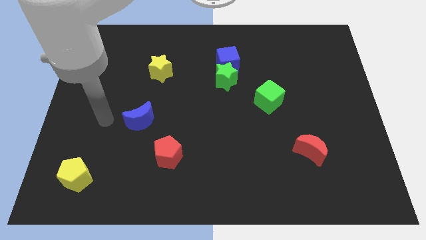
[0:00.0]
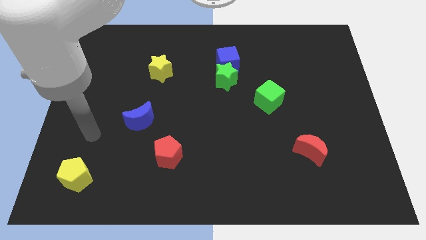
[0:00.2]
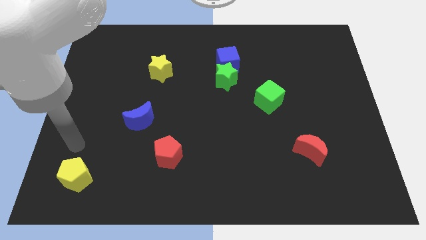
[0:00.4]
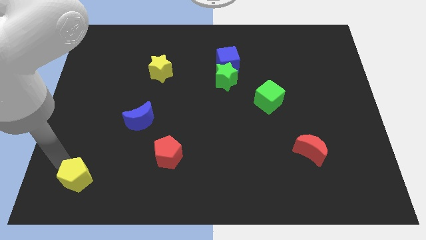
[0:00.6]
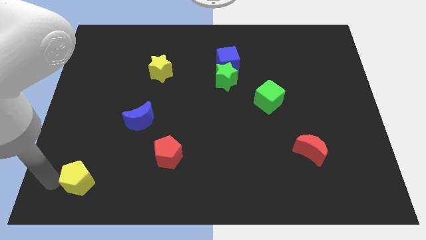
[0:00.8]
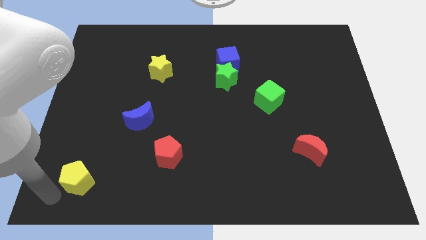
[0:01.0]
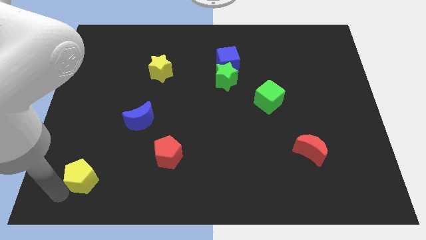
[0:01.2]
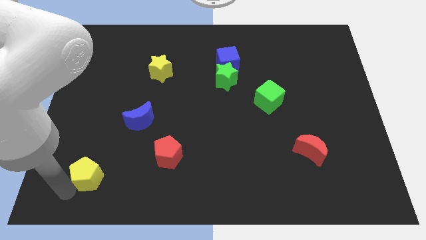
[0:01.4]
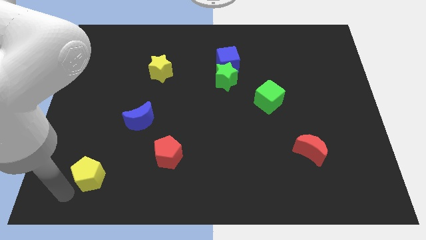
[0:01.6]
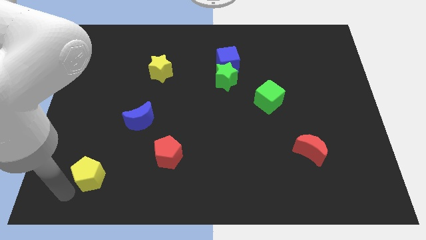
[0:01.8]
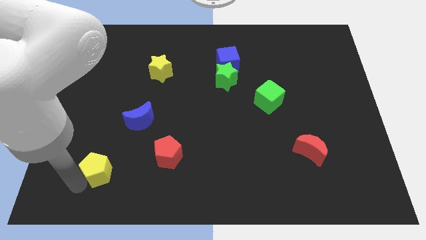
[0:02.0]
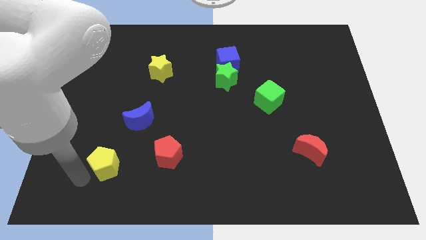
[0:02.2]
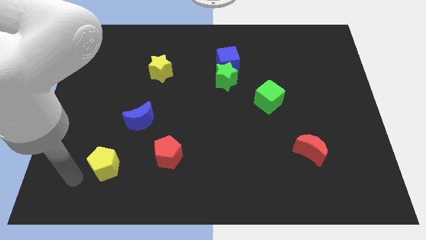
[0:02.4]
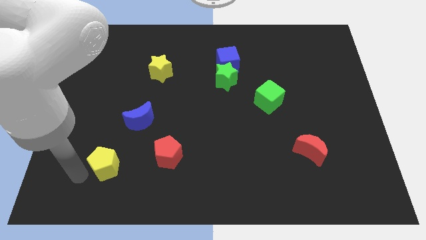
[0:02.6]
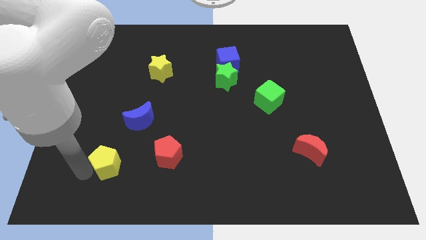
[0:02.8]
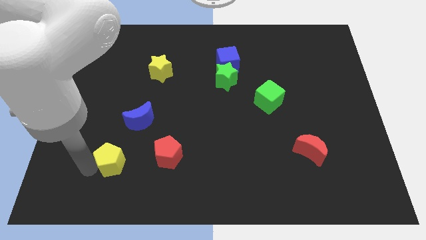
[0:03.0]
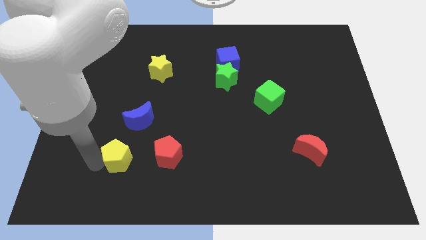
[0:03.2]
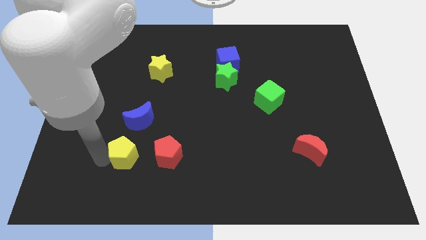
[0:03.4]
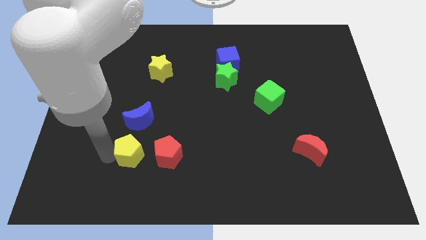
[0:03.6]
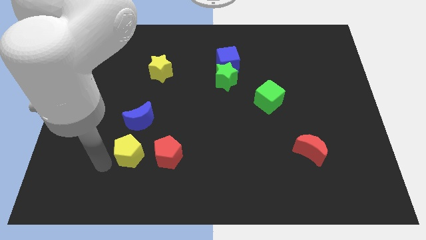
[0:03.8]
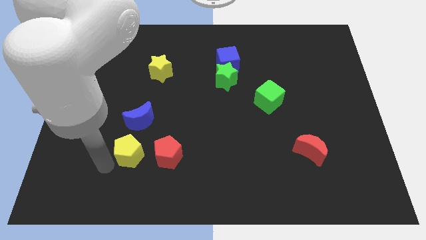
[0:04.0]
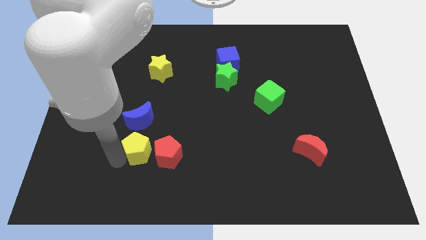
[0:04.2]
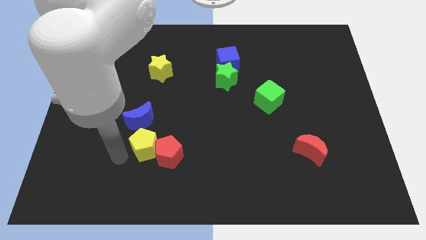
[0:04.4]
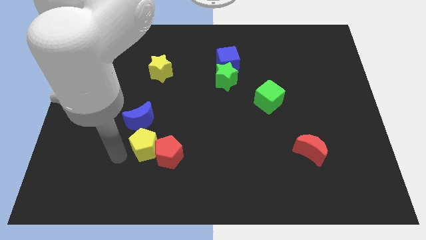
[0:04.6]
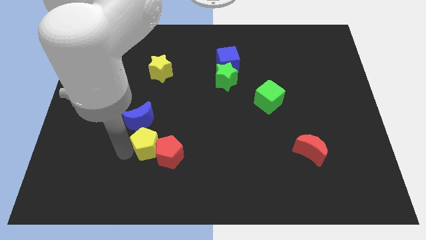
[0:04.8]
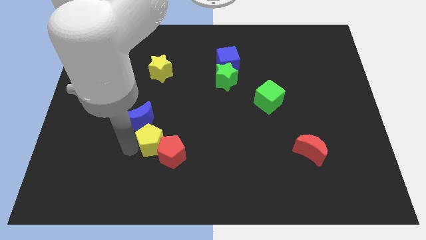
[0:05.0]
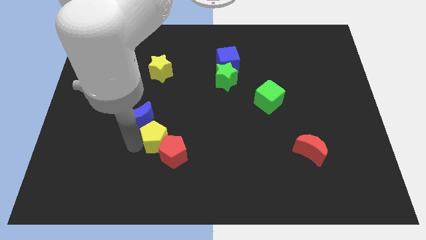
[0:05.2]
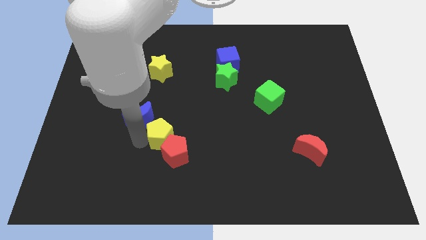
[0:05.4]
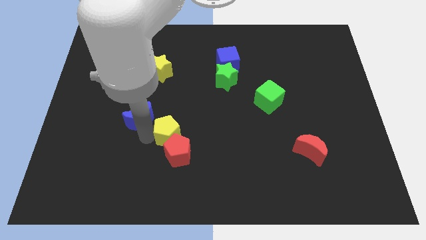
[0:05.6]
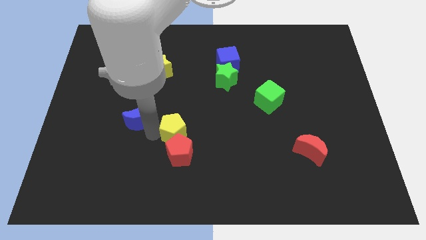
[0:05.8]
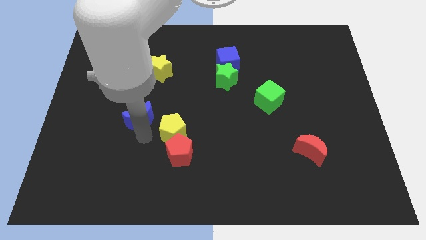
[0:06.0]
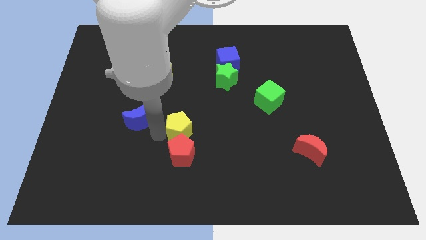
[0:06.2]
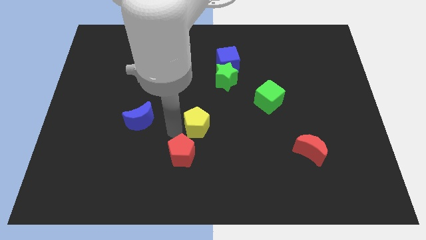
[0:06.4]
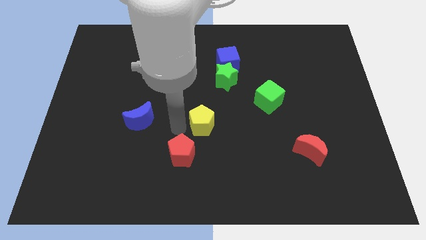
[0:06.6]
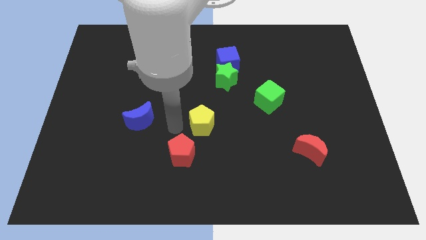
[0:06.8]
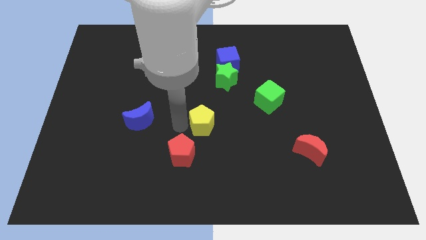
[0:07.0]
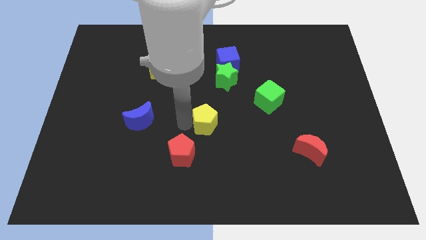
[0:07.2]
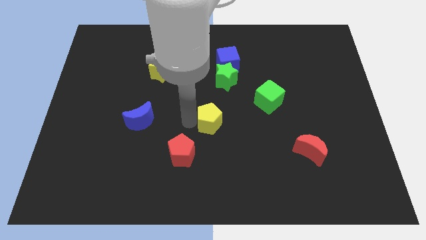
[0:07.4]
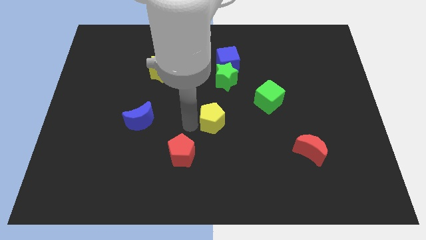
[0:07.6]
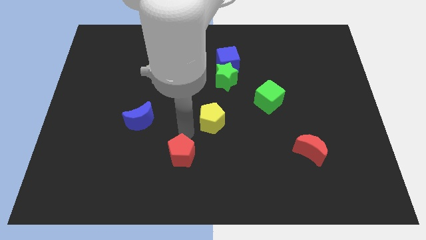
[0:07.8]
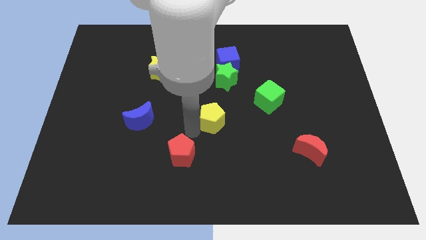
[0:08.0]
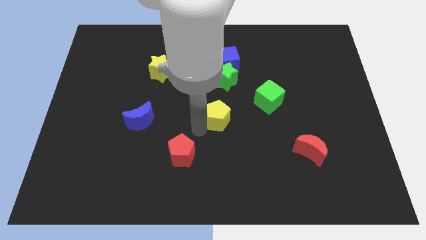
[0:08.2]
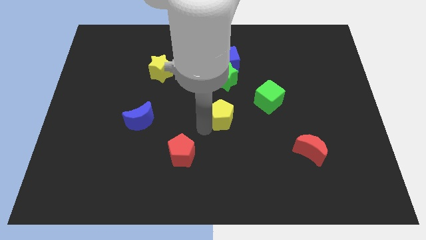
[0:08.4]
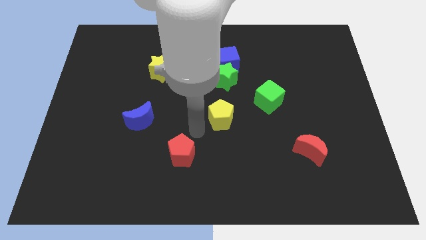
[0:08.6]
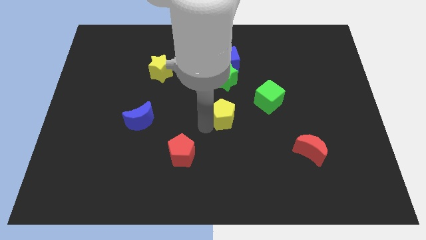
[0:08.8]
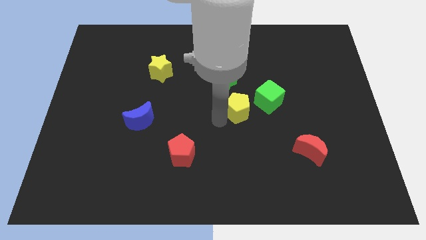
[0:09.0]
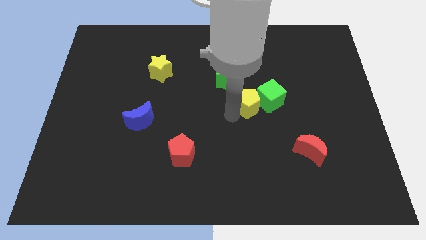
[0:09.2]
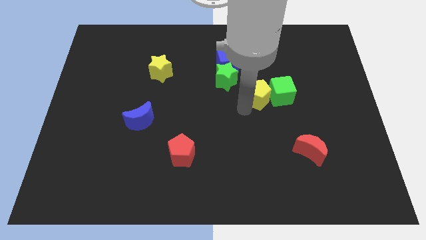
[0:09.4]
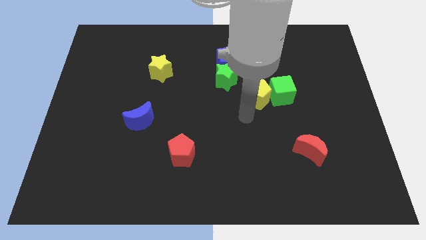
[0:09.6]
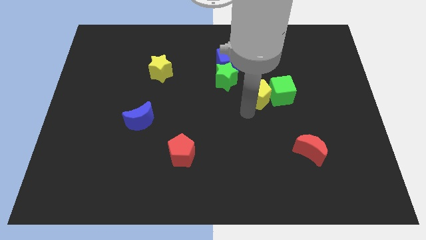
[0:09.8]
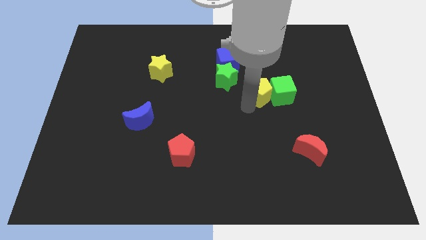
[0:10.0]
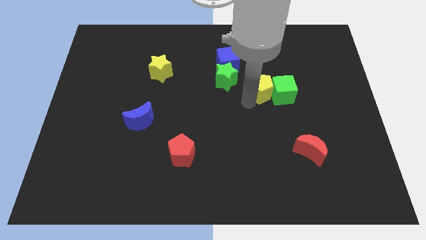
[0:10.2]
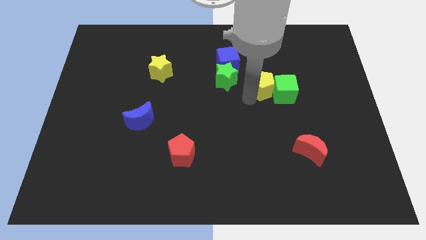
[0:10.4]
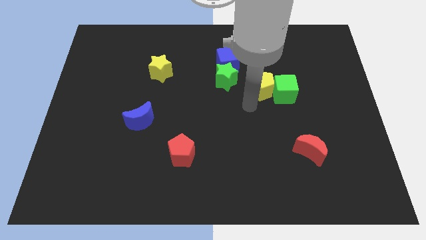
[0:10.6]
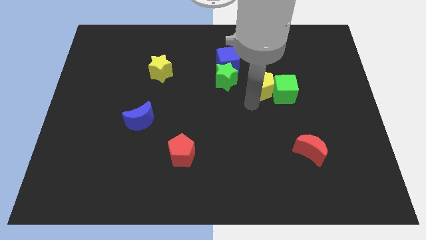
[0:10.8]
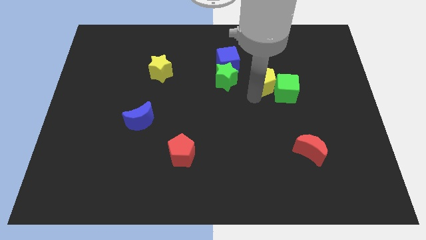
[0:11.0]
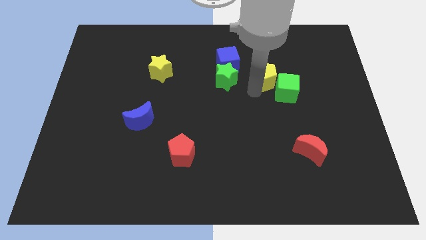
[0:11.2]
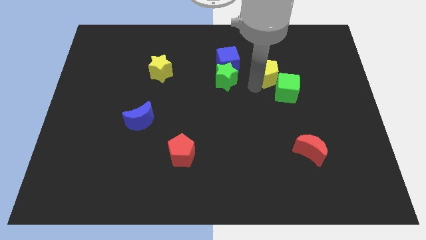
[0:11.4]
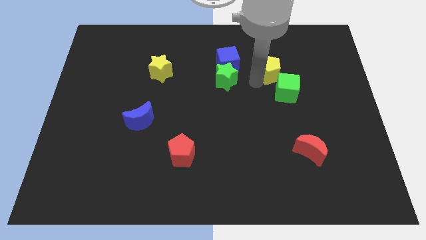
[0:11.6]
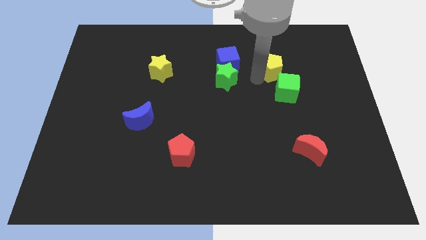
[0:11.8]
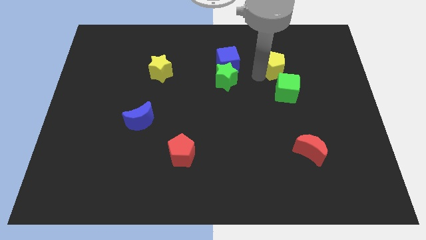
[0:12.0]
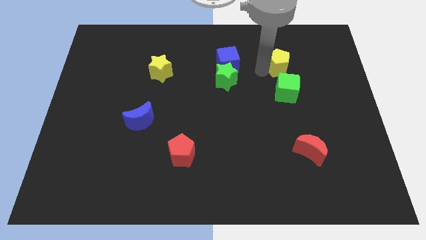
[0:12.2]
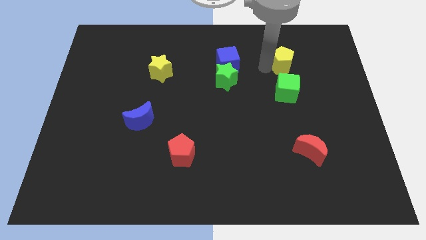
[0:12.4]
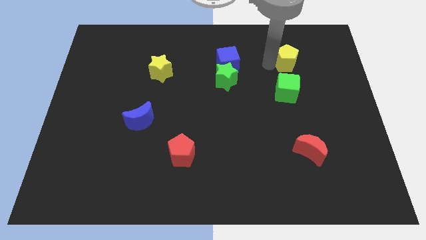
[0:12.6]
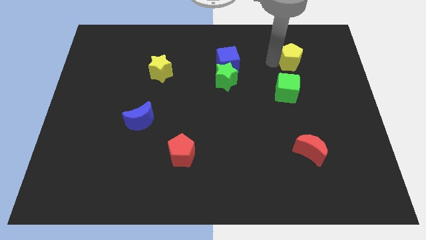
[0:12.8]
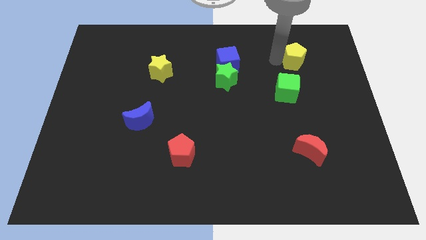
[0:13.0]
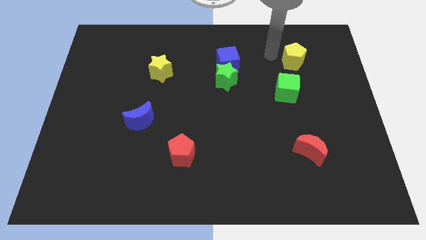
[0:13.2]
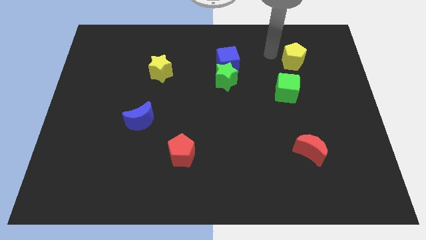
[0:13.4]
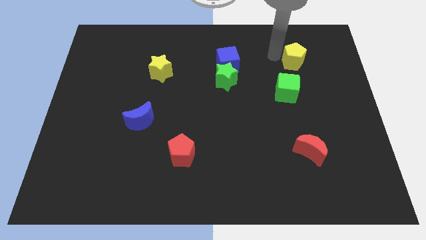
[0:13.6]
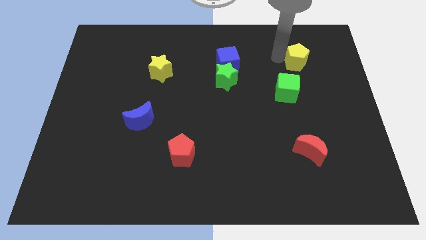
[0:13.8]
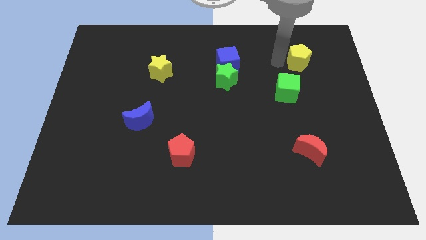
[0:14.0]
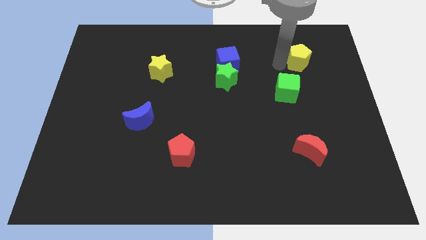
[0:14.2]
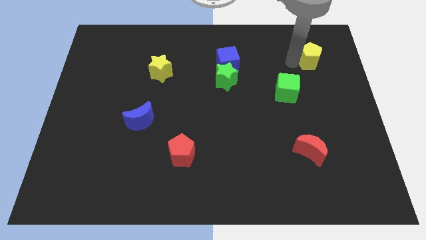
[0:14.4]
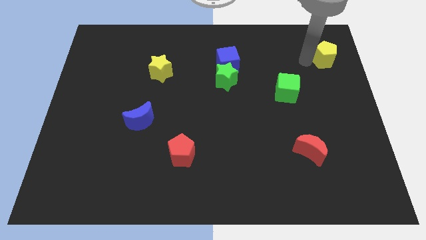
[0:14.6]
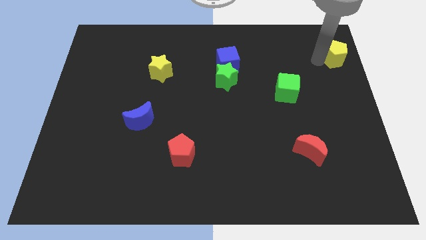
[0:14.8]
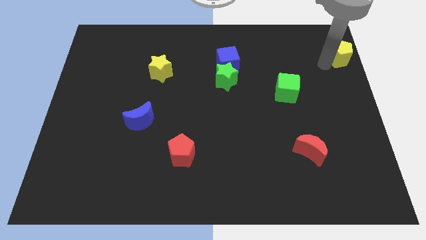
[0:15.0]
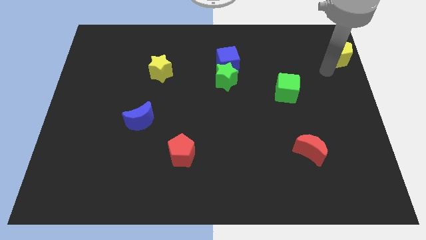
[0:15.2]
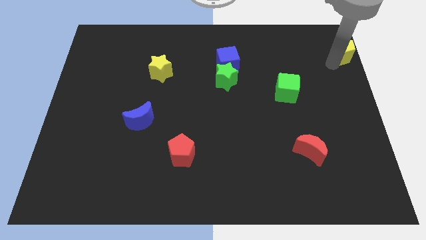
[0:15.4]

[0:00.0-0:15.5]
move the yellow pentagon to the top right corner
